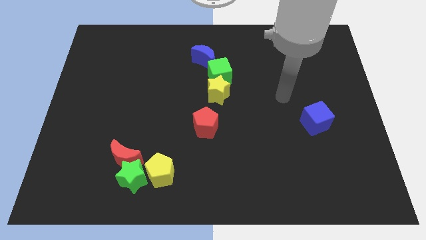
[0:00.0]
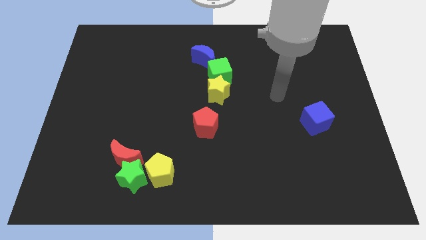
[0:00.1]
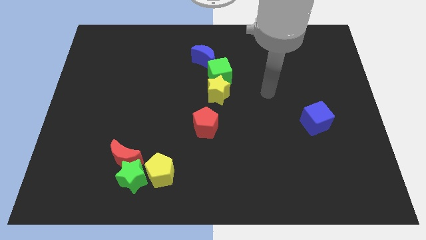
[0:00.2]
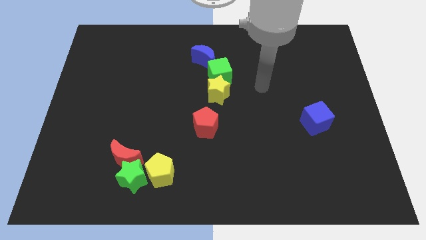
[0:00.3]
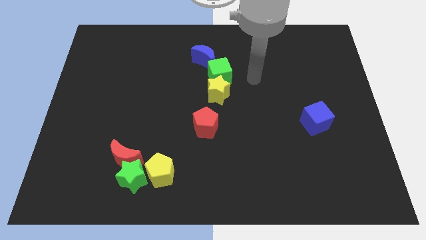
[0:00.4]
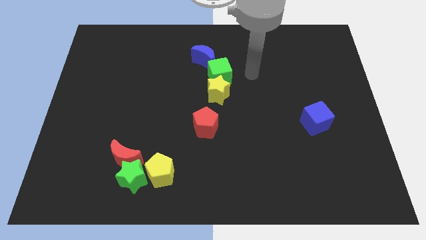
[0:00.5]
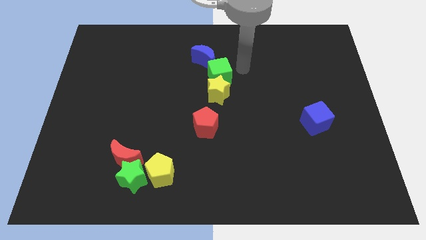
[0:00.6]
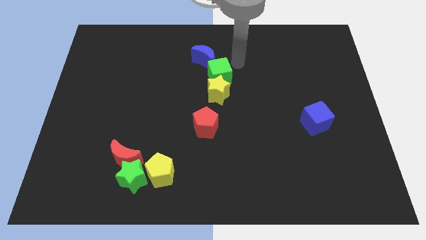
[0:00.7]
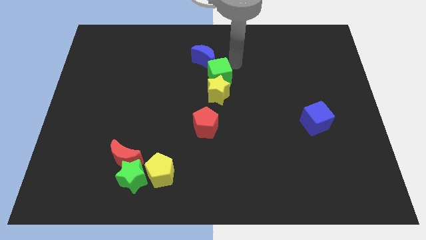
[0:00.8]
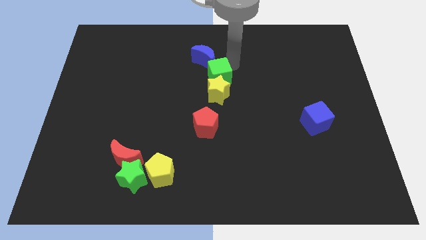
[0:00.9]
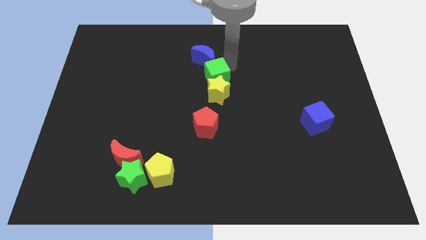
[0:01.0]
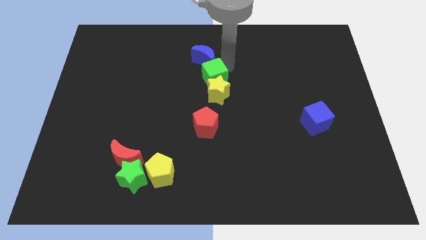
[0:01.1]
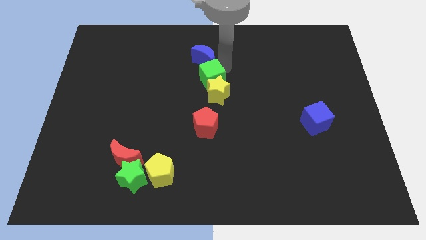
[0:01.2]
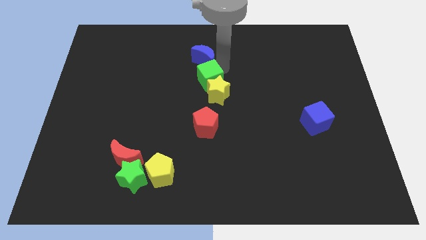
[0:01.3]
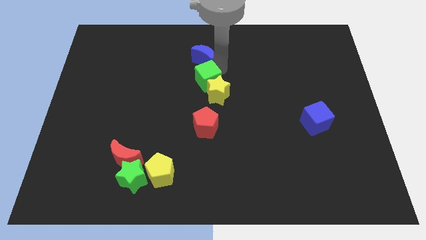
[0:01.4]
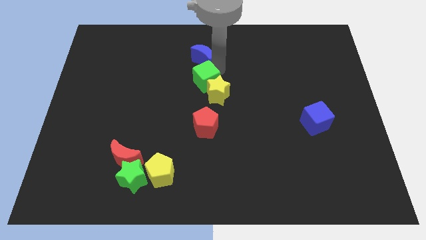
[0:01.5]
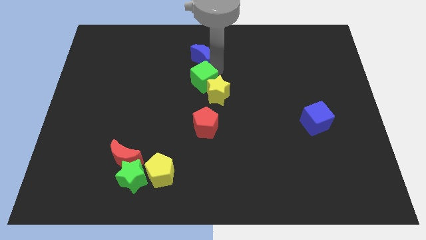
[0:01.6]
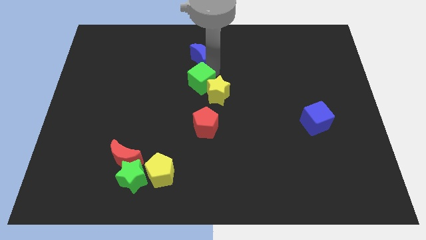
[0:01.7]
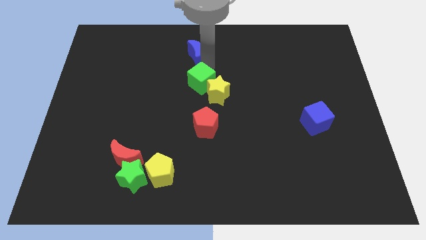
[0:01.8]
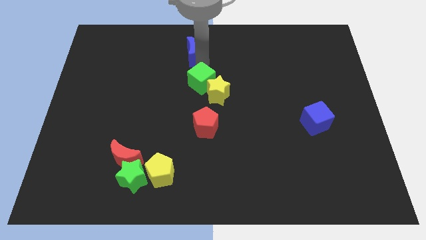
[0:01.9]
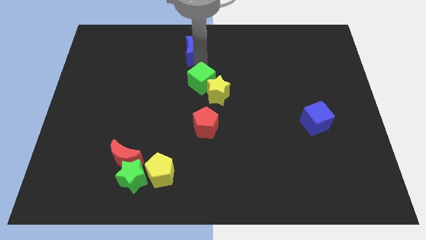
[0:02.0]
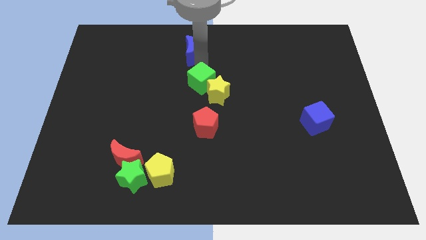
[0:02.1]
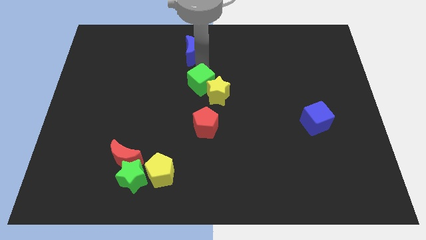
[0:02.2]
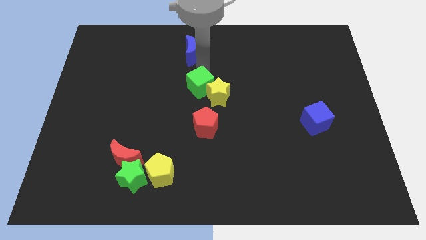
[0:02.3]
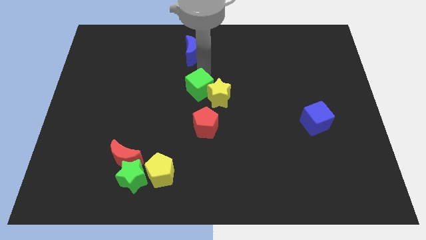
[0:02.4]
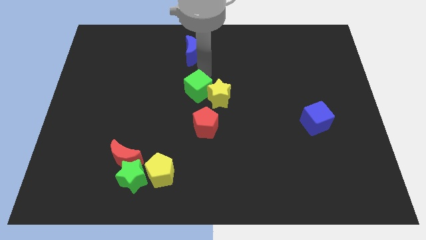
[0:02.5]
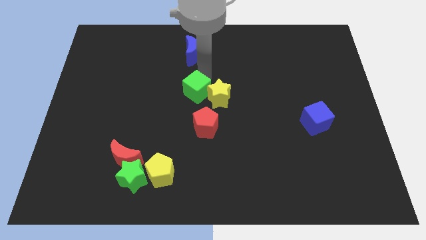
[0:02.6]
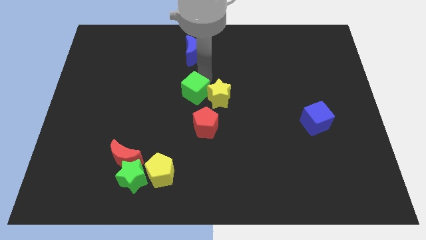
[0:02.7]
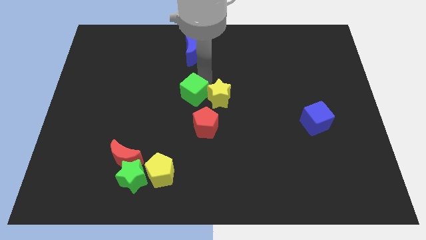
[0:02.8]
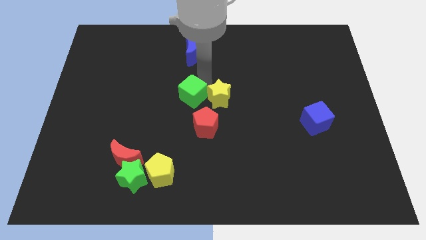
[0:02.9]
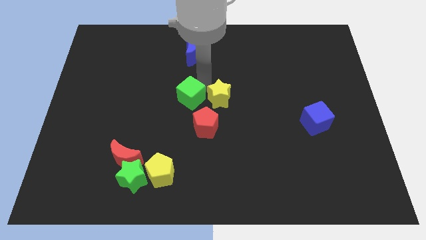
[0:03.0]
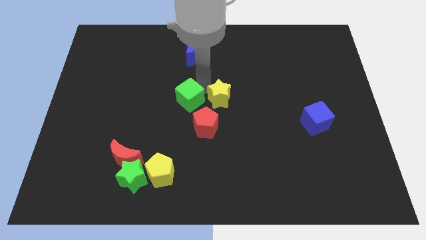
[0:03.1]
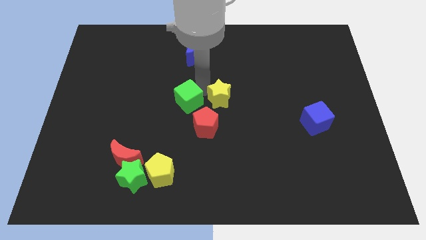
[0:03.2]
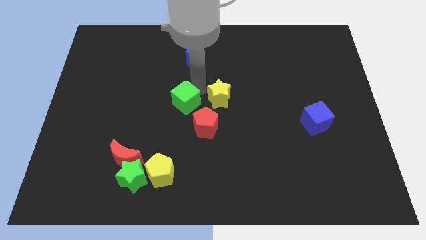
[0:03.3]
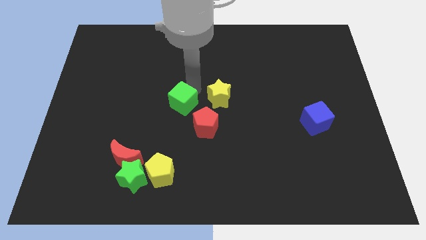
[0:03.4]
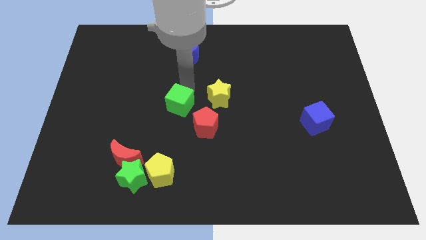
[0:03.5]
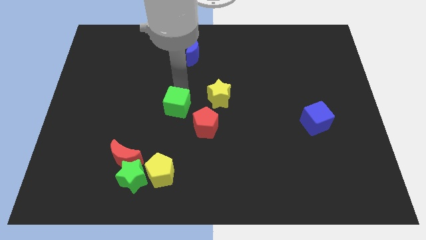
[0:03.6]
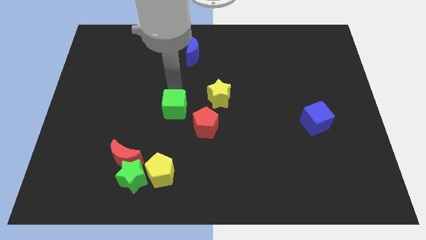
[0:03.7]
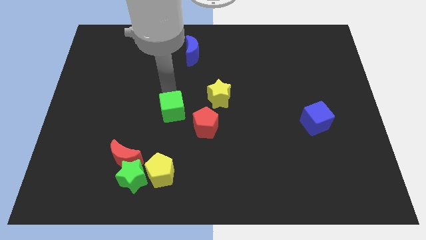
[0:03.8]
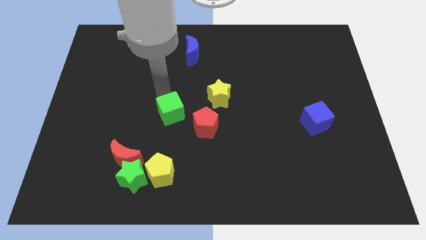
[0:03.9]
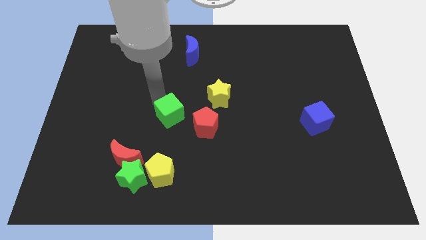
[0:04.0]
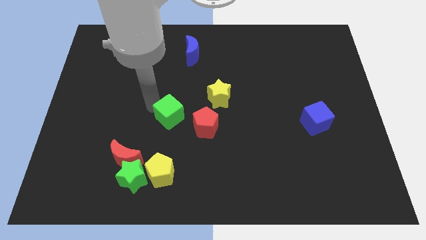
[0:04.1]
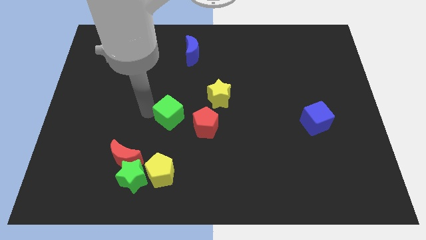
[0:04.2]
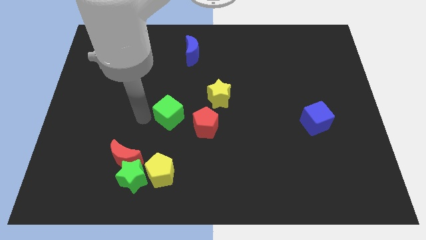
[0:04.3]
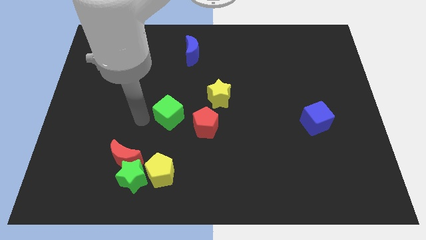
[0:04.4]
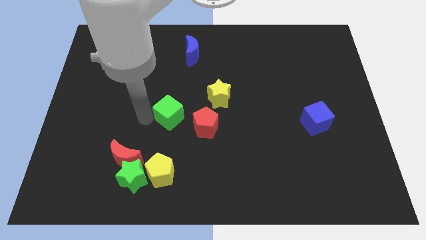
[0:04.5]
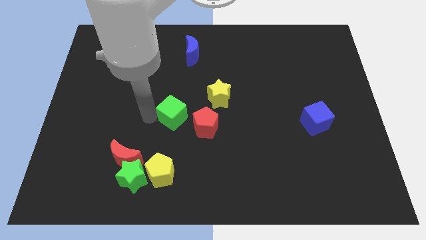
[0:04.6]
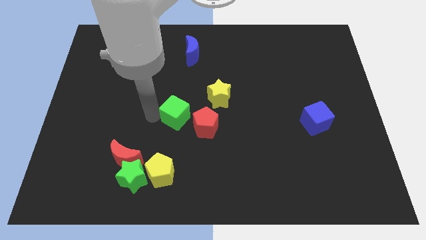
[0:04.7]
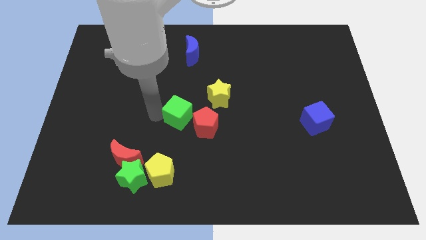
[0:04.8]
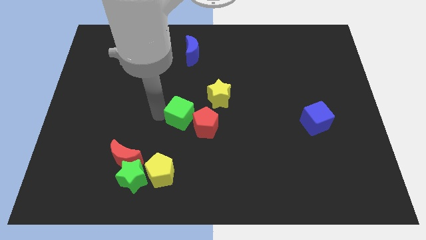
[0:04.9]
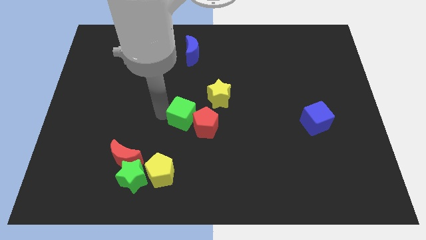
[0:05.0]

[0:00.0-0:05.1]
push the green cube next to the red pentagon

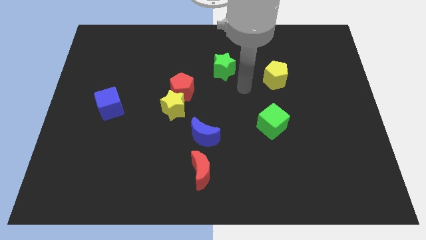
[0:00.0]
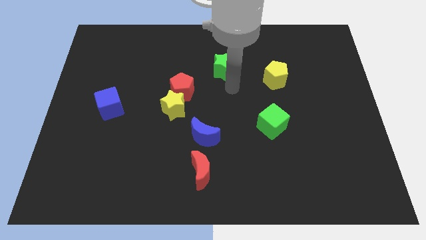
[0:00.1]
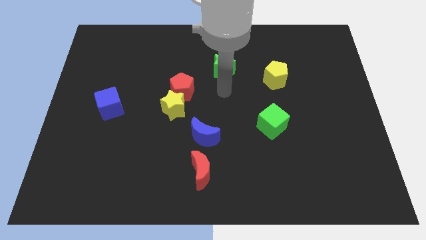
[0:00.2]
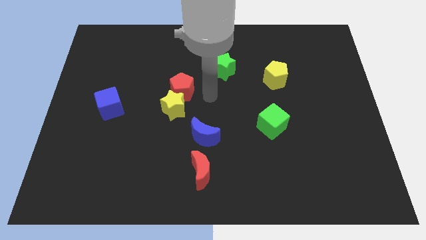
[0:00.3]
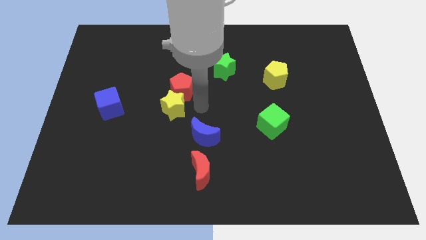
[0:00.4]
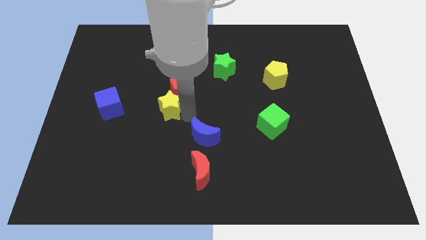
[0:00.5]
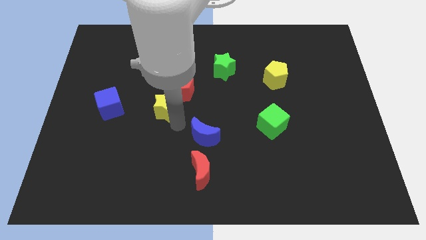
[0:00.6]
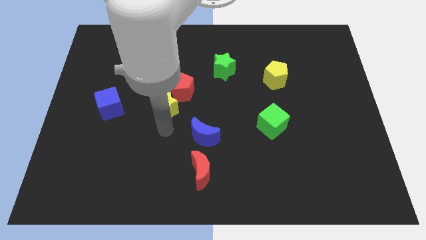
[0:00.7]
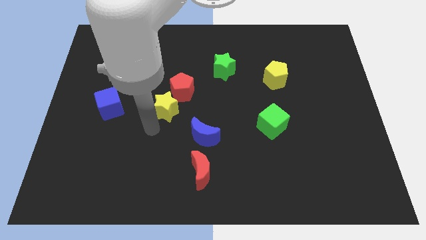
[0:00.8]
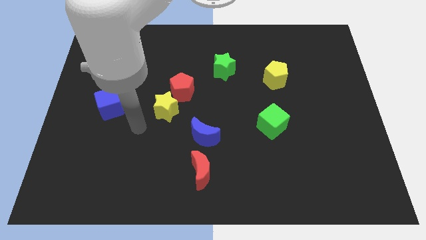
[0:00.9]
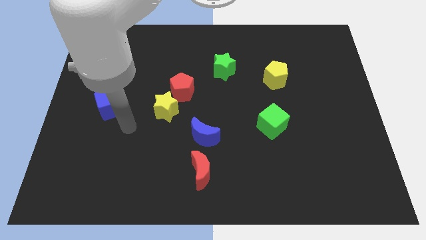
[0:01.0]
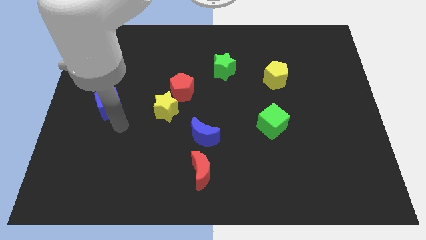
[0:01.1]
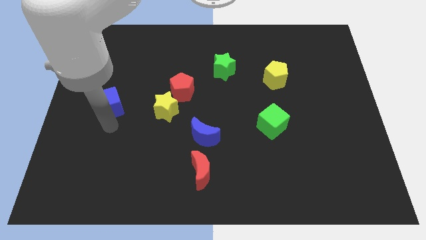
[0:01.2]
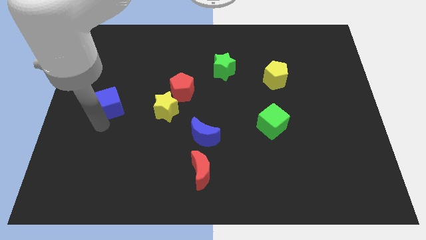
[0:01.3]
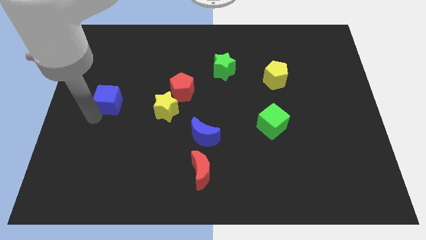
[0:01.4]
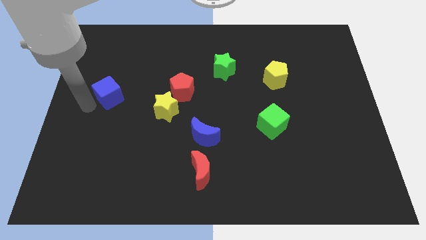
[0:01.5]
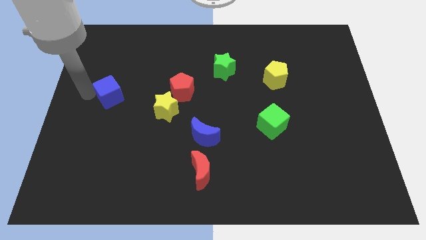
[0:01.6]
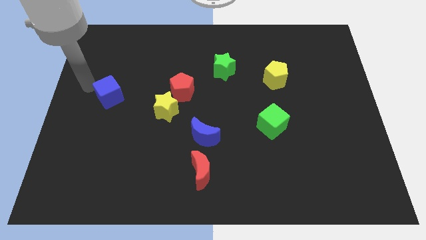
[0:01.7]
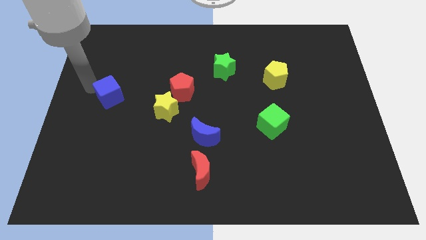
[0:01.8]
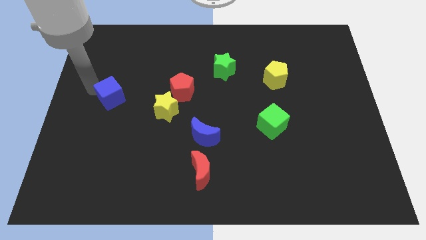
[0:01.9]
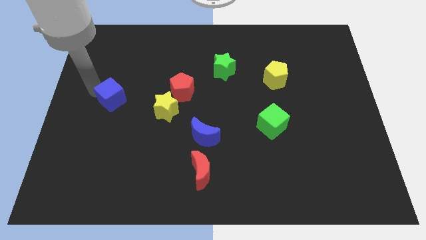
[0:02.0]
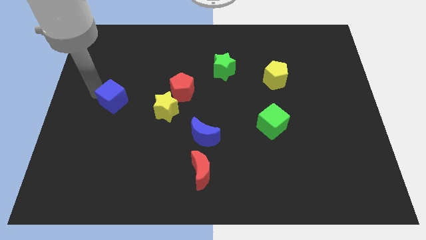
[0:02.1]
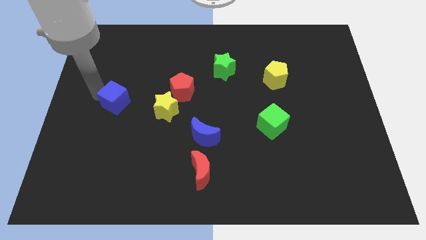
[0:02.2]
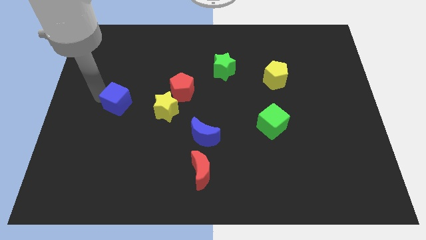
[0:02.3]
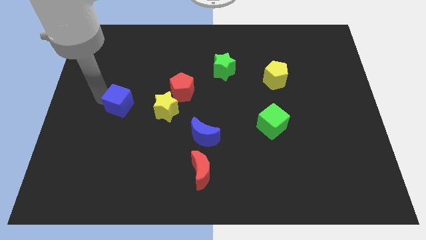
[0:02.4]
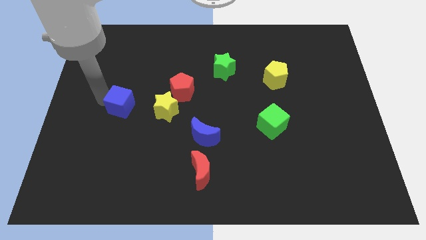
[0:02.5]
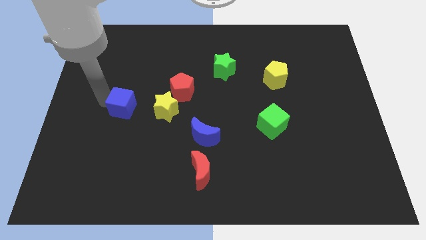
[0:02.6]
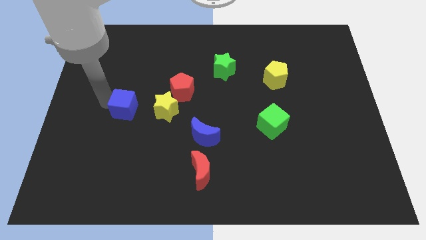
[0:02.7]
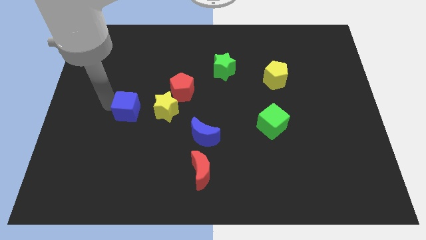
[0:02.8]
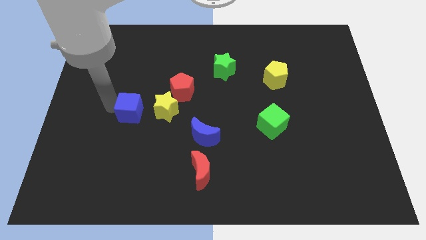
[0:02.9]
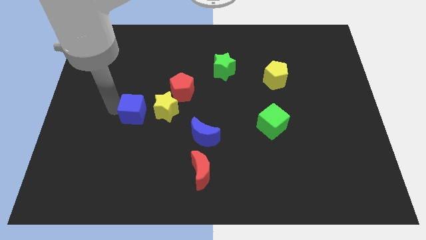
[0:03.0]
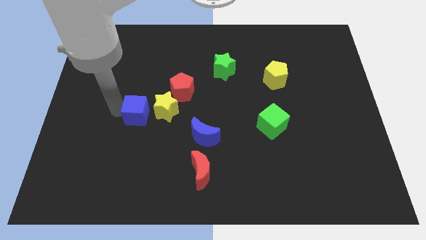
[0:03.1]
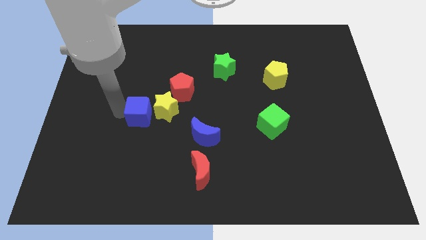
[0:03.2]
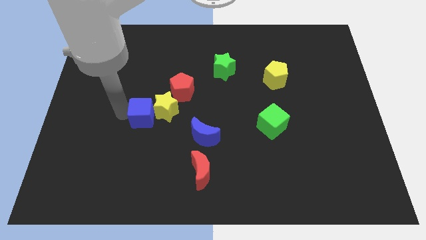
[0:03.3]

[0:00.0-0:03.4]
slide the blue cube towards the yellow star
